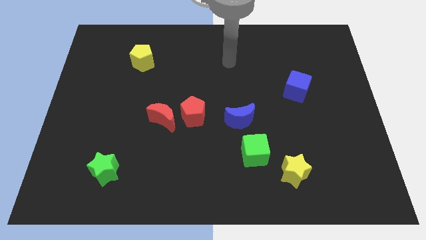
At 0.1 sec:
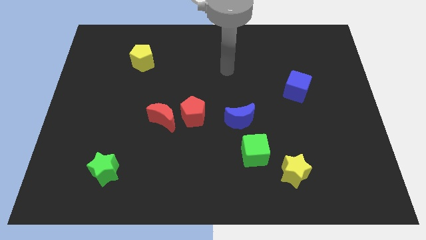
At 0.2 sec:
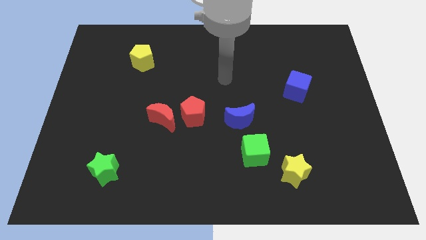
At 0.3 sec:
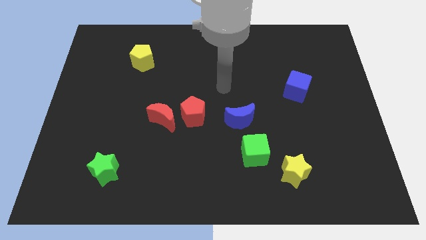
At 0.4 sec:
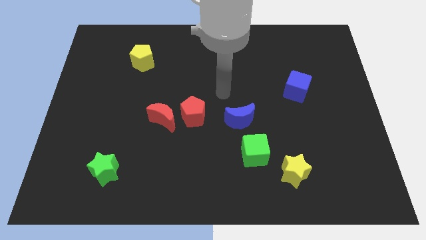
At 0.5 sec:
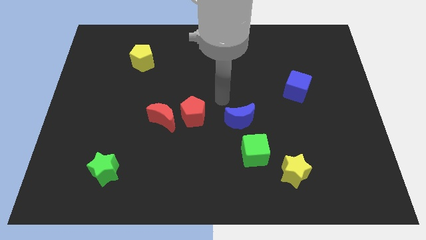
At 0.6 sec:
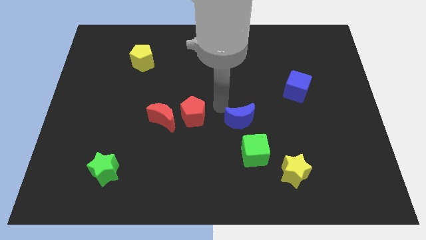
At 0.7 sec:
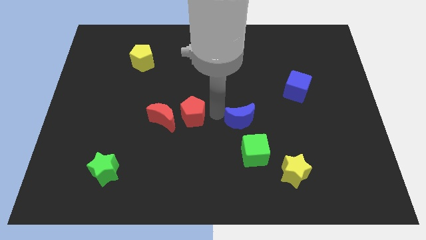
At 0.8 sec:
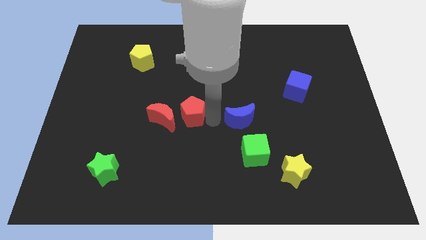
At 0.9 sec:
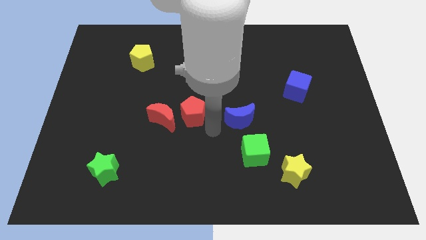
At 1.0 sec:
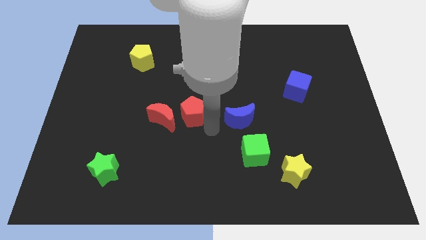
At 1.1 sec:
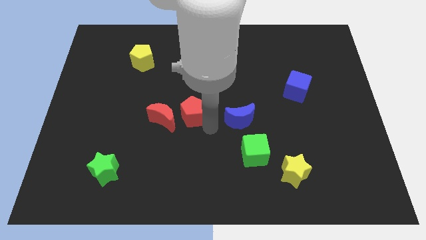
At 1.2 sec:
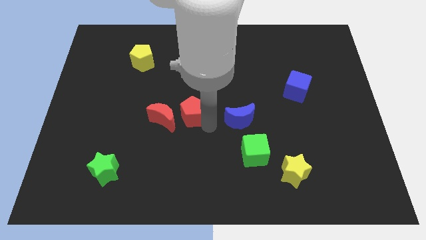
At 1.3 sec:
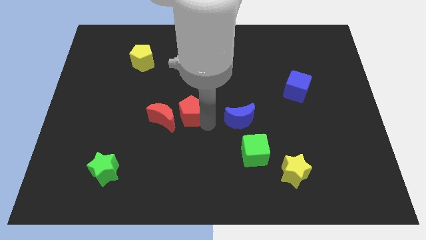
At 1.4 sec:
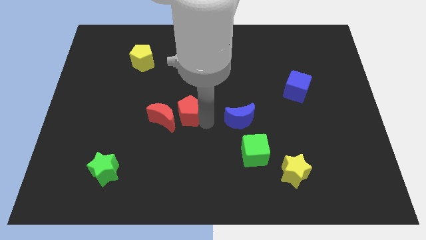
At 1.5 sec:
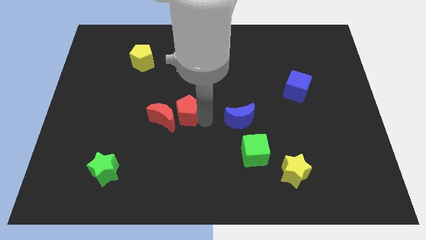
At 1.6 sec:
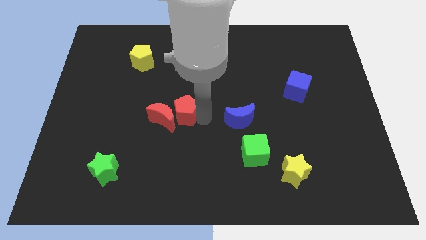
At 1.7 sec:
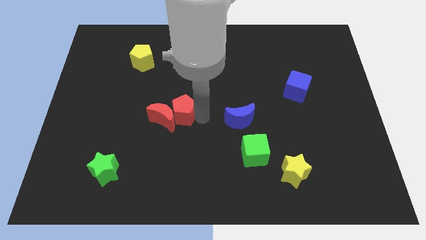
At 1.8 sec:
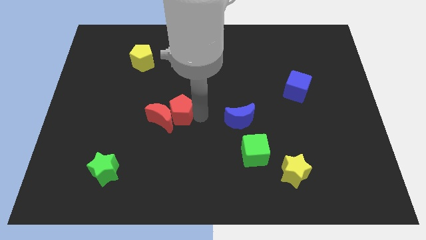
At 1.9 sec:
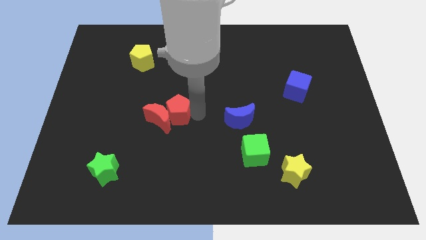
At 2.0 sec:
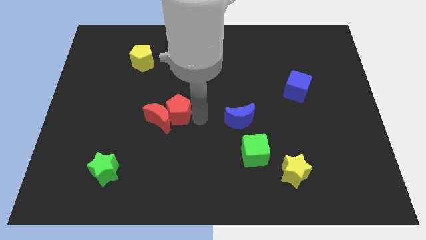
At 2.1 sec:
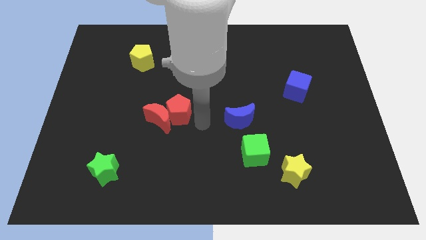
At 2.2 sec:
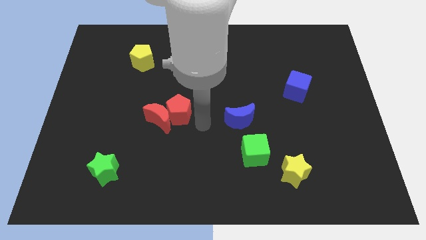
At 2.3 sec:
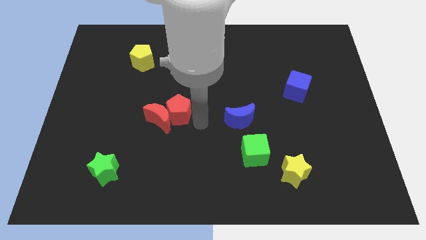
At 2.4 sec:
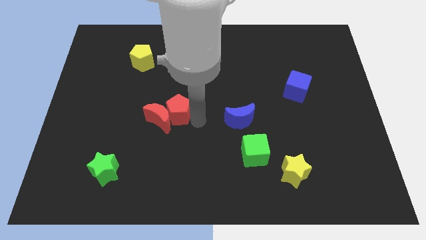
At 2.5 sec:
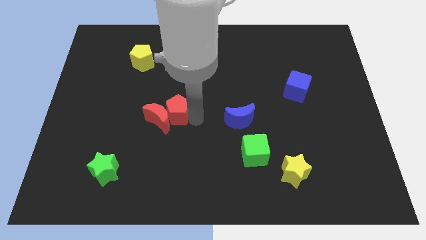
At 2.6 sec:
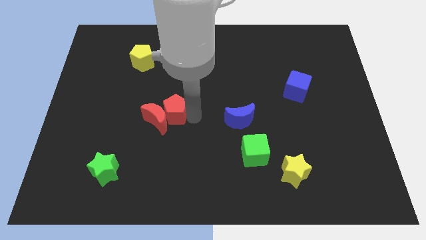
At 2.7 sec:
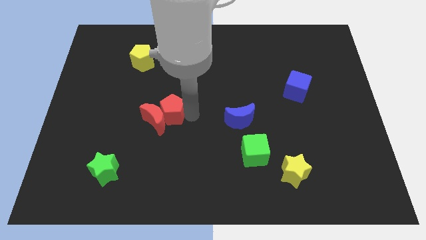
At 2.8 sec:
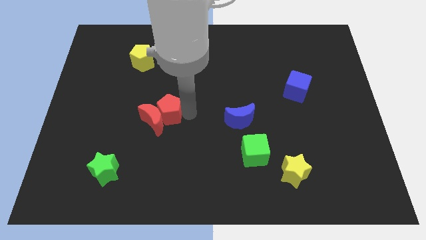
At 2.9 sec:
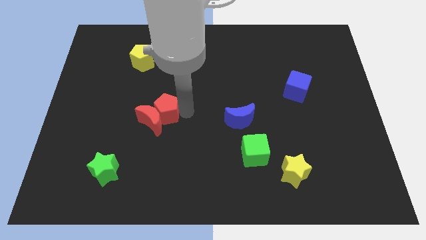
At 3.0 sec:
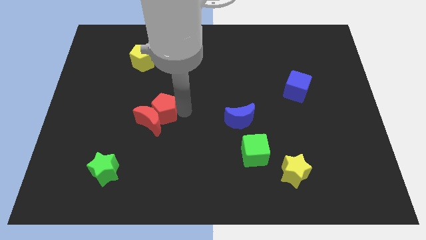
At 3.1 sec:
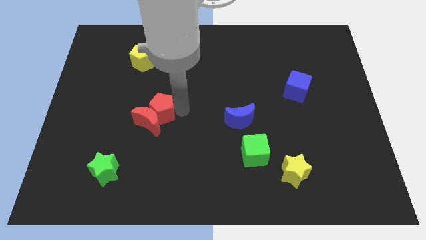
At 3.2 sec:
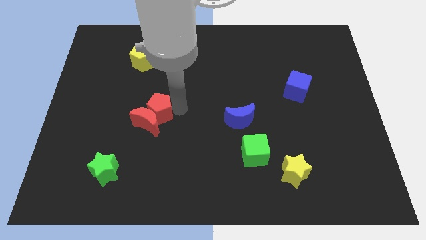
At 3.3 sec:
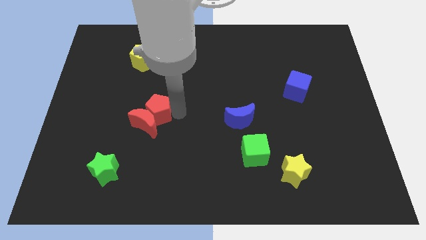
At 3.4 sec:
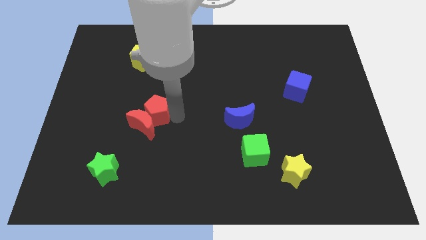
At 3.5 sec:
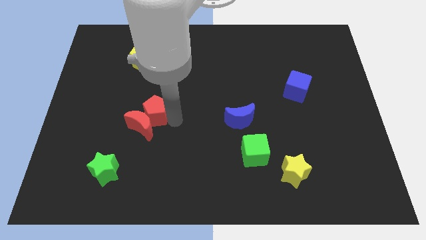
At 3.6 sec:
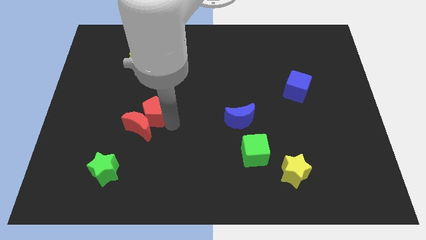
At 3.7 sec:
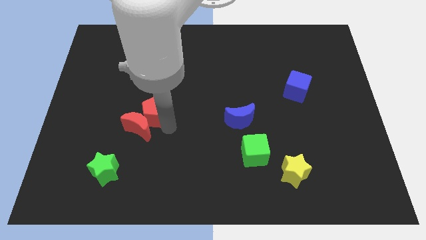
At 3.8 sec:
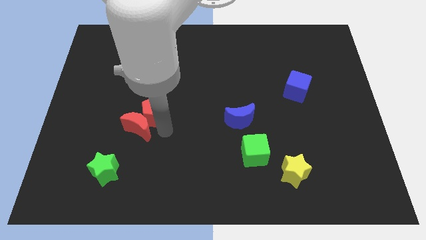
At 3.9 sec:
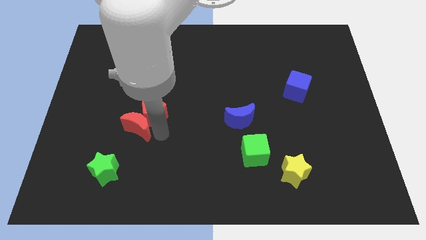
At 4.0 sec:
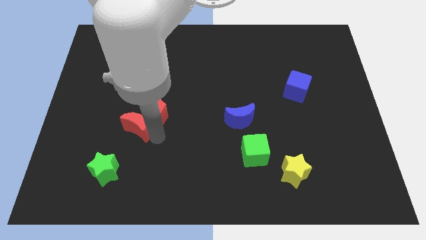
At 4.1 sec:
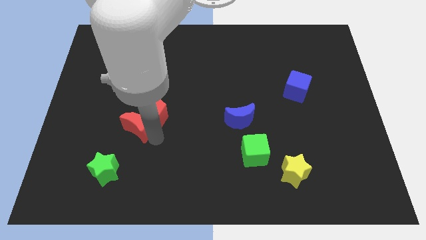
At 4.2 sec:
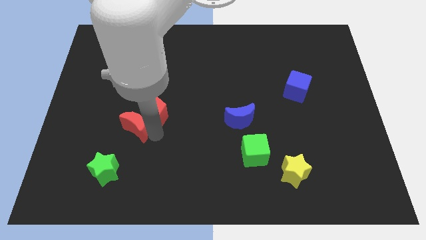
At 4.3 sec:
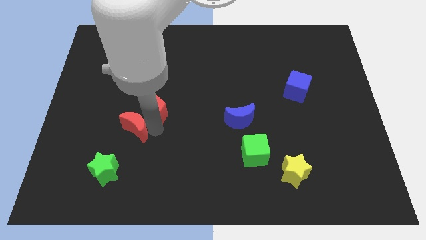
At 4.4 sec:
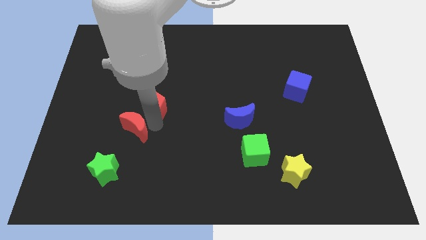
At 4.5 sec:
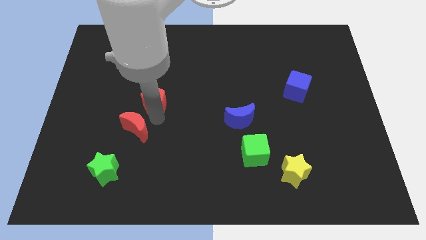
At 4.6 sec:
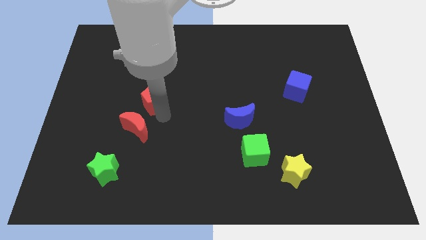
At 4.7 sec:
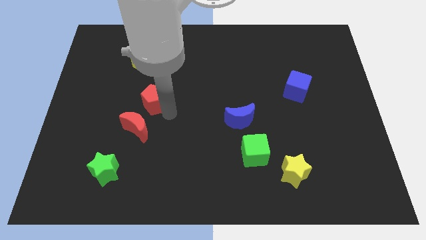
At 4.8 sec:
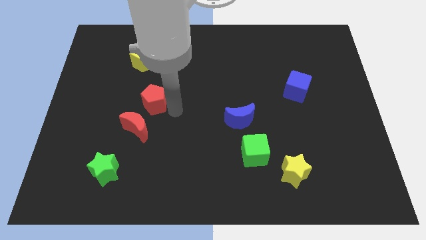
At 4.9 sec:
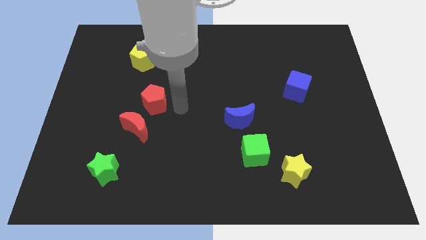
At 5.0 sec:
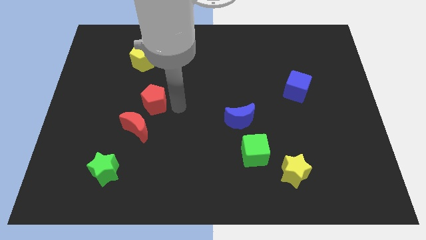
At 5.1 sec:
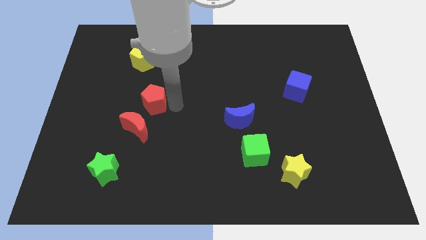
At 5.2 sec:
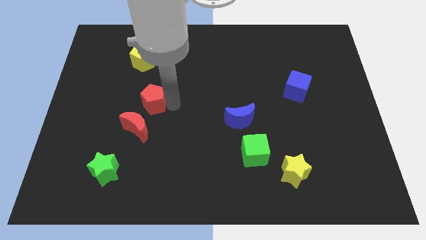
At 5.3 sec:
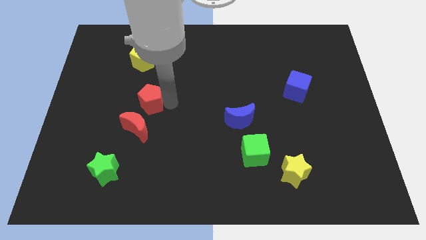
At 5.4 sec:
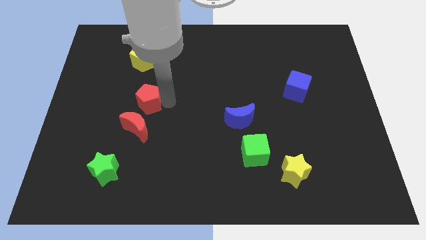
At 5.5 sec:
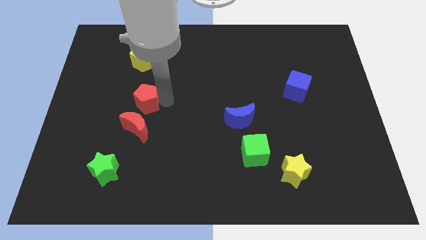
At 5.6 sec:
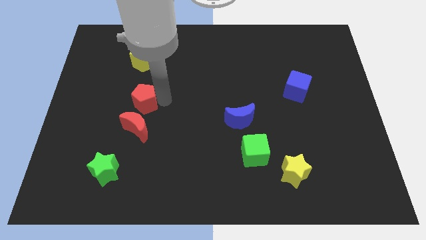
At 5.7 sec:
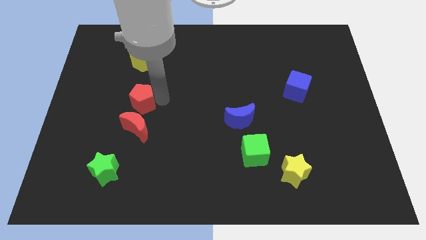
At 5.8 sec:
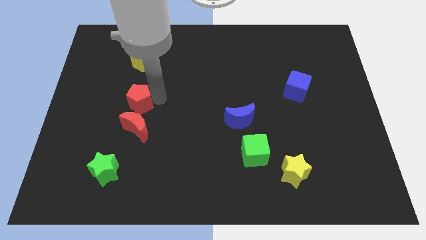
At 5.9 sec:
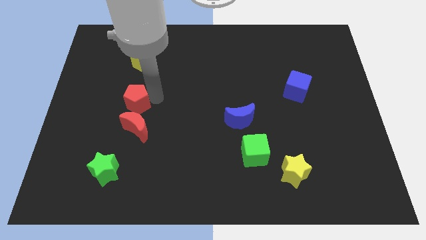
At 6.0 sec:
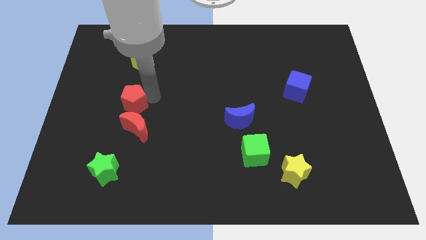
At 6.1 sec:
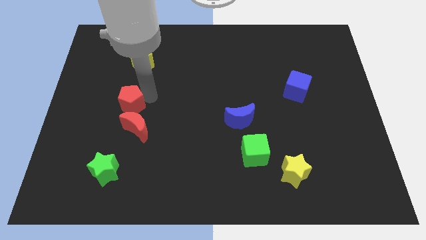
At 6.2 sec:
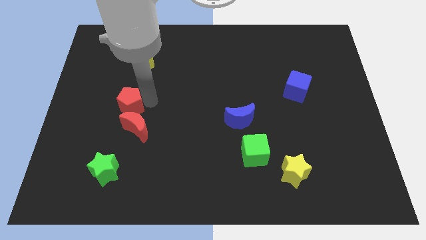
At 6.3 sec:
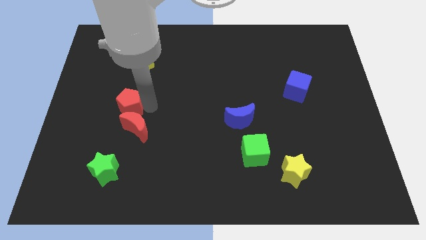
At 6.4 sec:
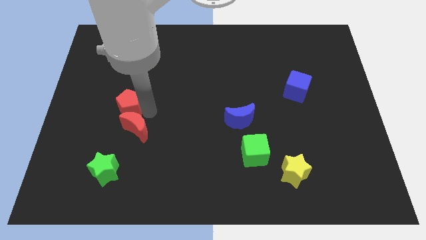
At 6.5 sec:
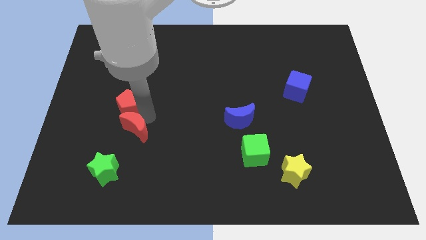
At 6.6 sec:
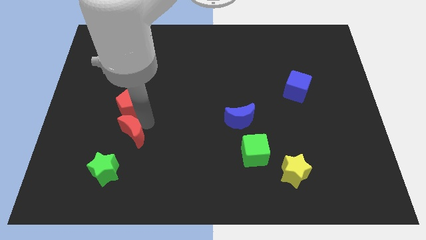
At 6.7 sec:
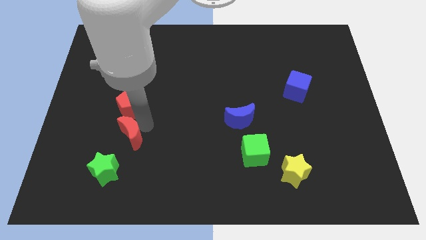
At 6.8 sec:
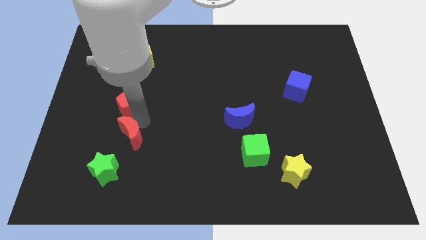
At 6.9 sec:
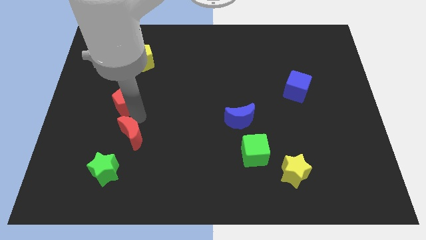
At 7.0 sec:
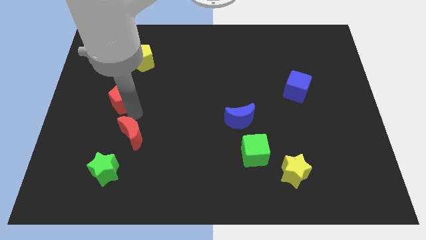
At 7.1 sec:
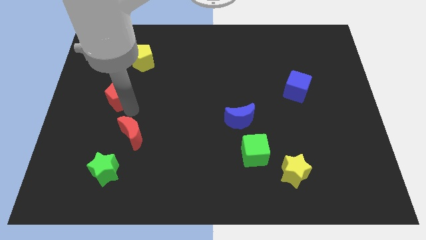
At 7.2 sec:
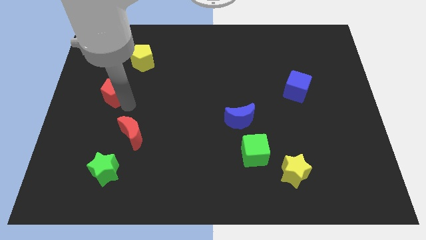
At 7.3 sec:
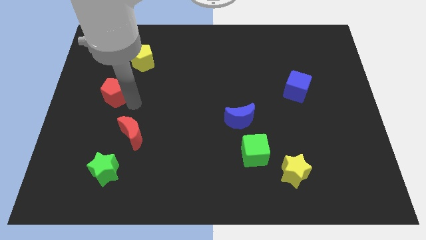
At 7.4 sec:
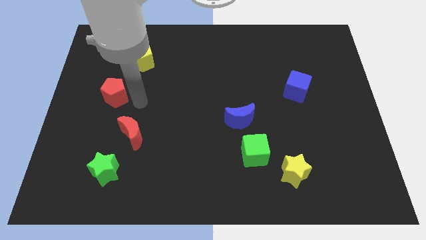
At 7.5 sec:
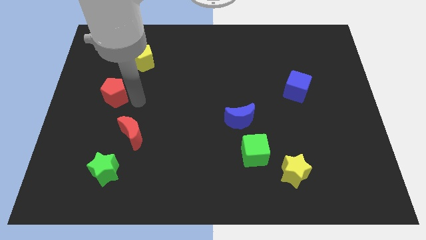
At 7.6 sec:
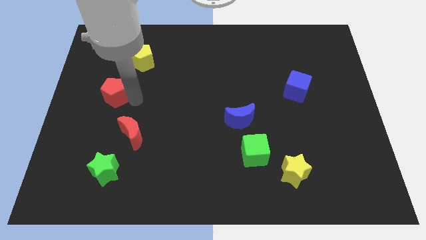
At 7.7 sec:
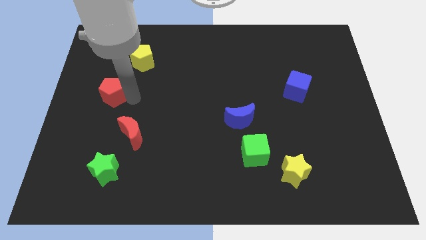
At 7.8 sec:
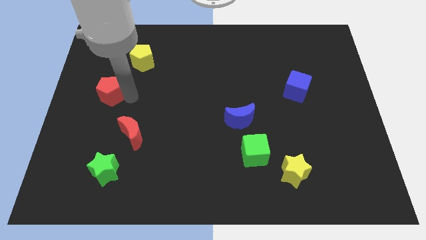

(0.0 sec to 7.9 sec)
slide the red pentagon to the left side
